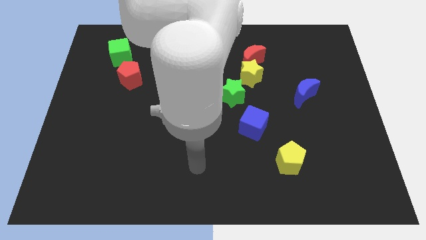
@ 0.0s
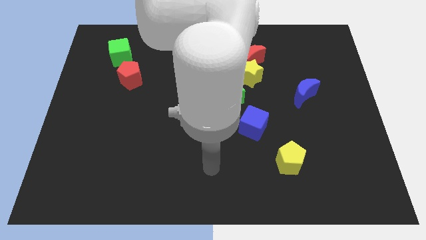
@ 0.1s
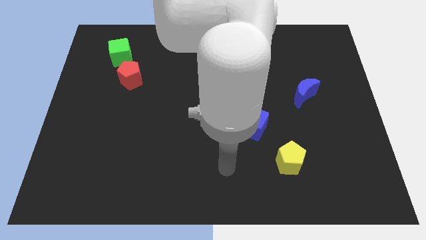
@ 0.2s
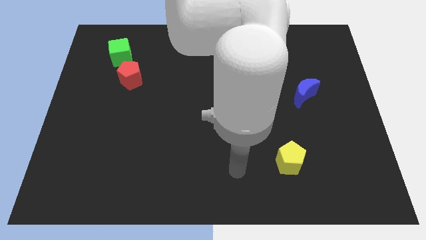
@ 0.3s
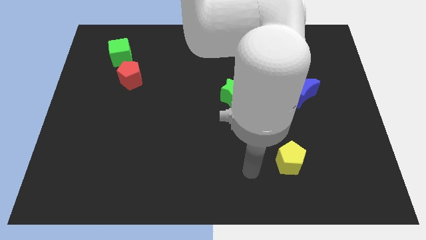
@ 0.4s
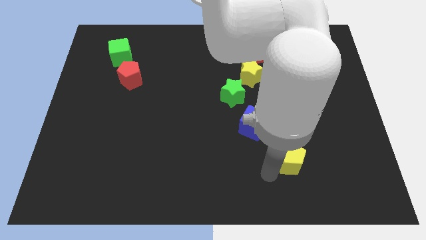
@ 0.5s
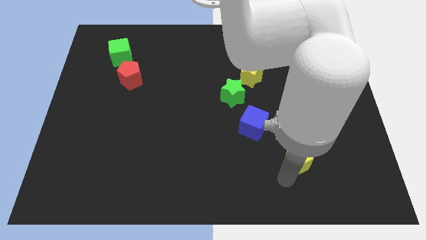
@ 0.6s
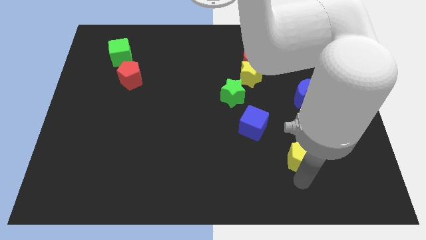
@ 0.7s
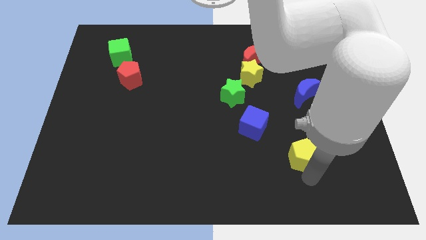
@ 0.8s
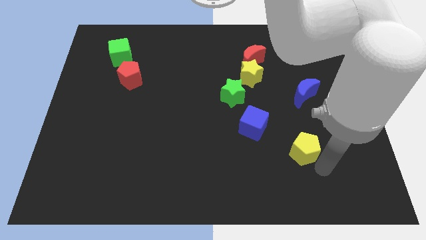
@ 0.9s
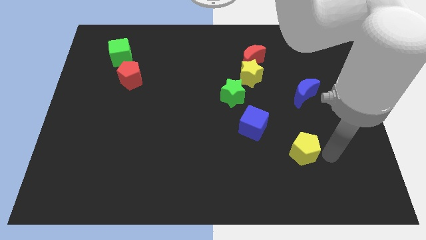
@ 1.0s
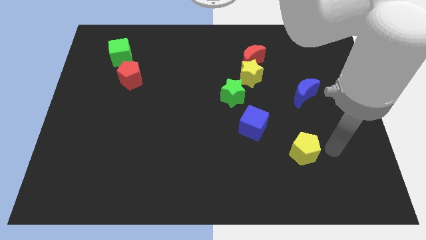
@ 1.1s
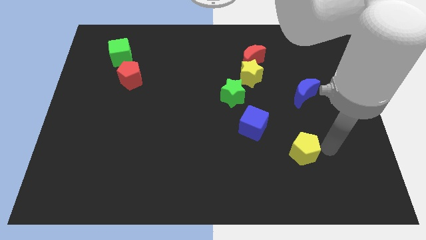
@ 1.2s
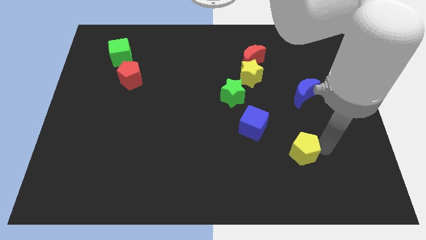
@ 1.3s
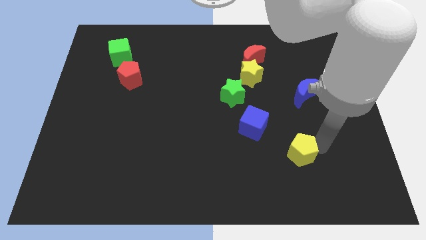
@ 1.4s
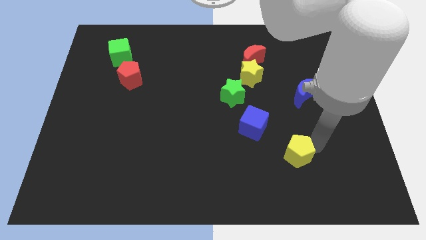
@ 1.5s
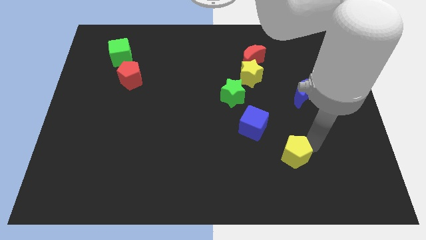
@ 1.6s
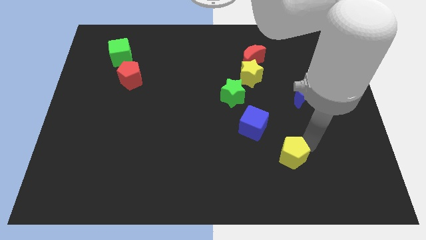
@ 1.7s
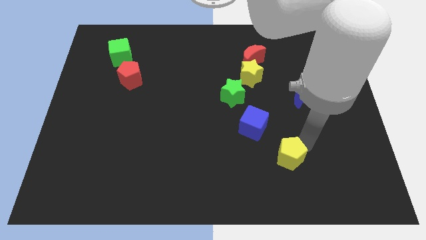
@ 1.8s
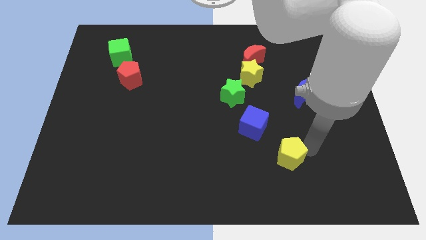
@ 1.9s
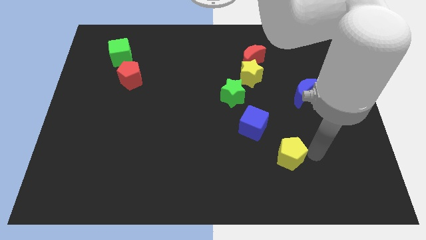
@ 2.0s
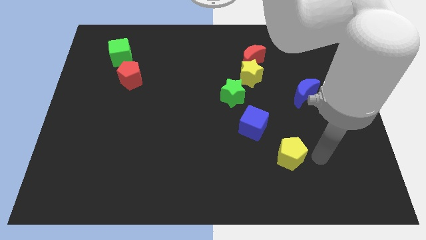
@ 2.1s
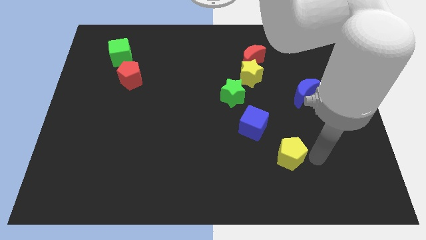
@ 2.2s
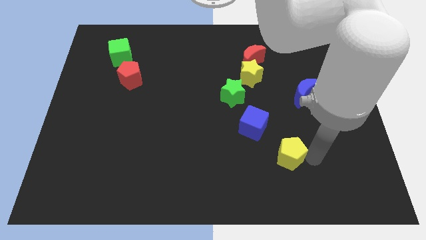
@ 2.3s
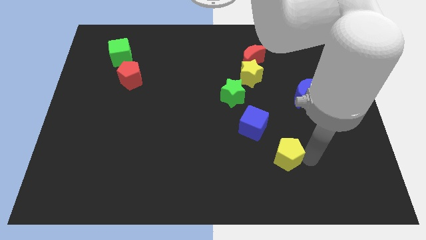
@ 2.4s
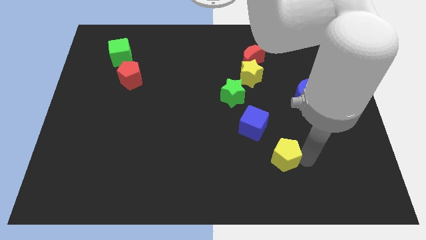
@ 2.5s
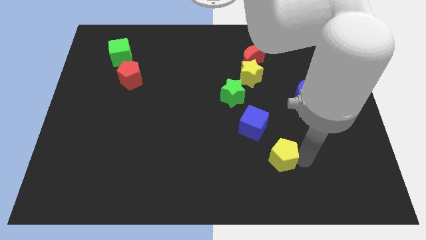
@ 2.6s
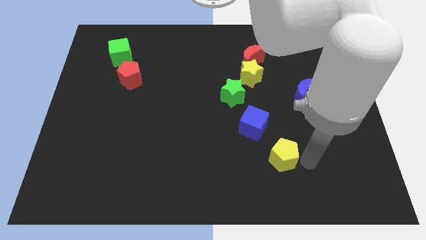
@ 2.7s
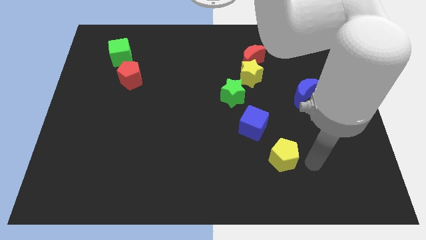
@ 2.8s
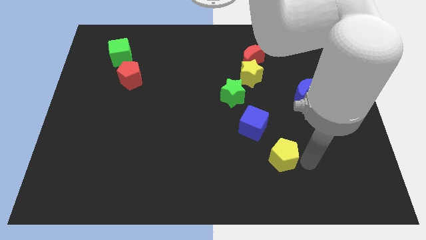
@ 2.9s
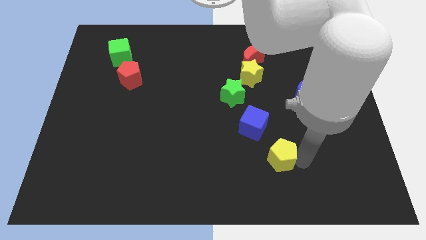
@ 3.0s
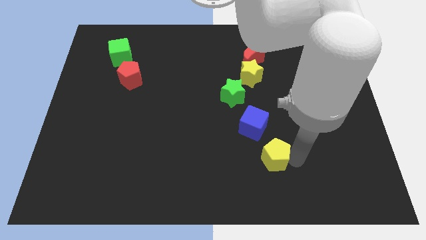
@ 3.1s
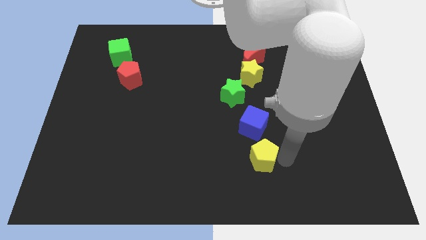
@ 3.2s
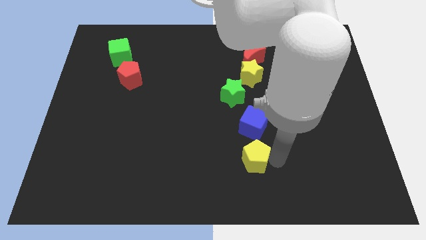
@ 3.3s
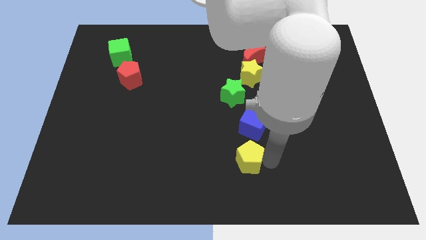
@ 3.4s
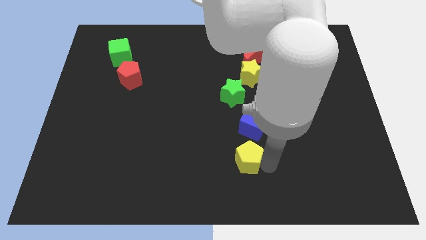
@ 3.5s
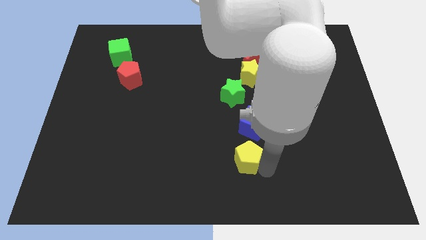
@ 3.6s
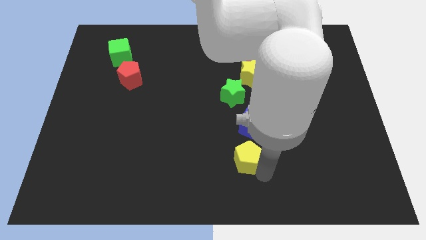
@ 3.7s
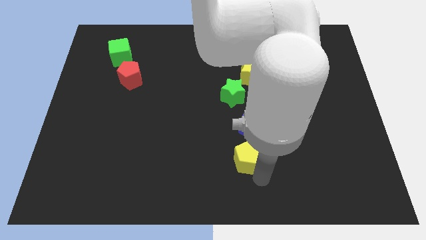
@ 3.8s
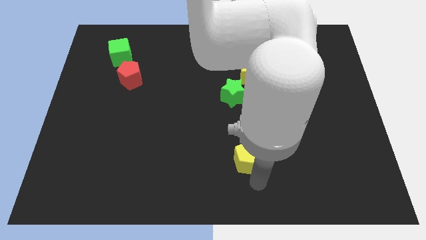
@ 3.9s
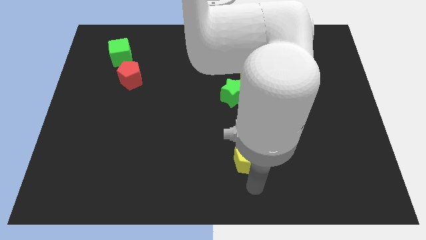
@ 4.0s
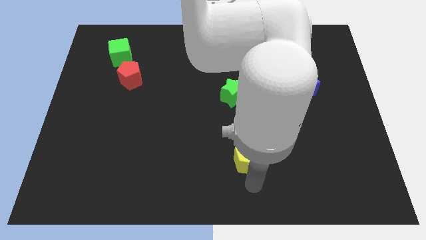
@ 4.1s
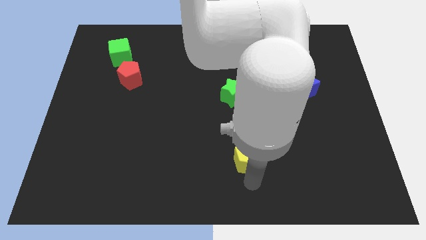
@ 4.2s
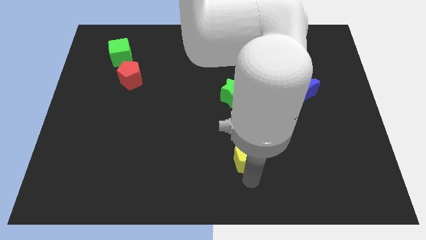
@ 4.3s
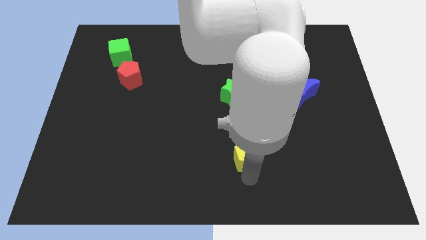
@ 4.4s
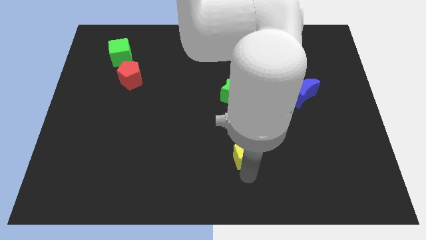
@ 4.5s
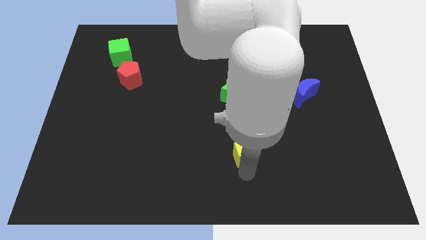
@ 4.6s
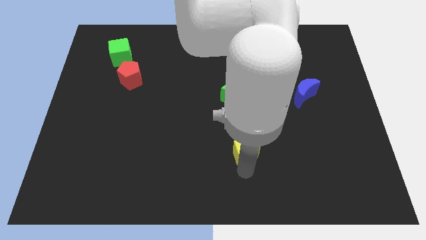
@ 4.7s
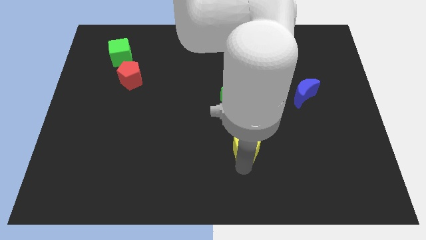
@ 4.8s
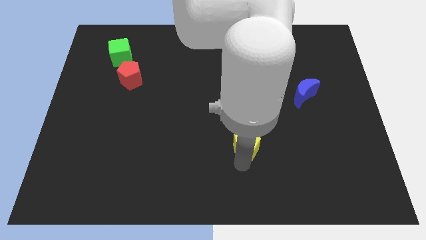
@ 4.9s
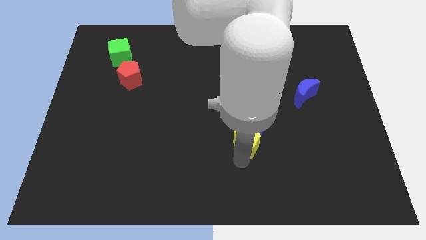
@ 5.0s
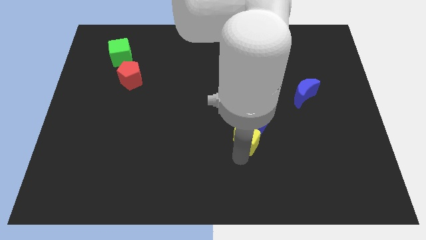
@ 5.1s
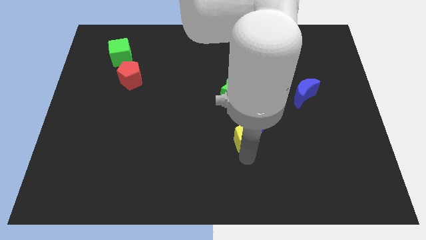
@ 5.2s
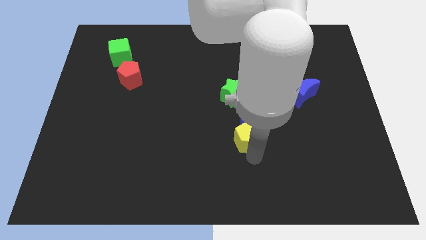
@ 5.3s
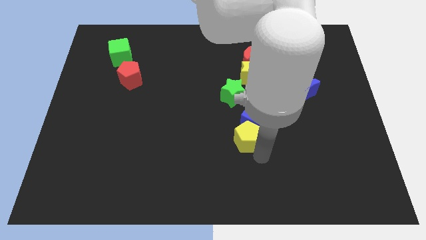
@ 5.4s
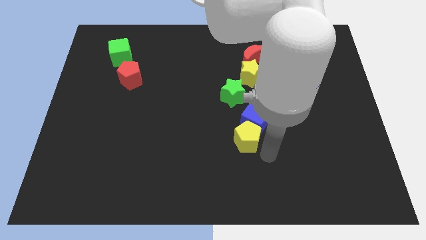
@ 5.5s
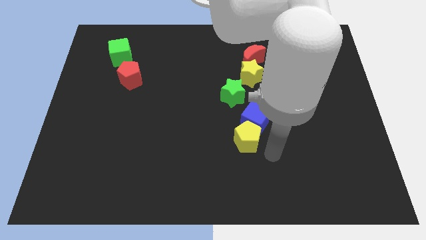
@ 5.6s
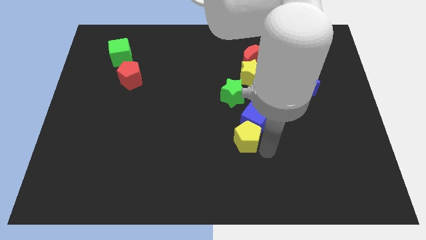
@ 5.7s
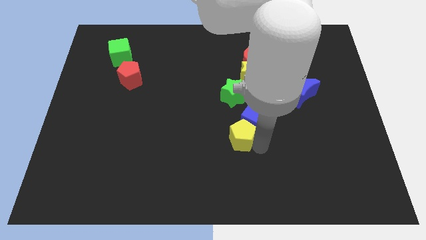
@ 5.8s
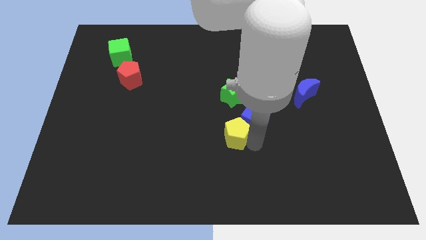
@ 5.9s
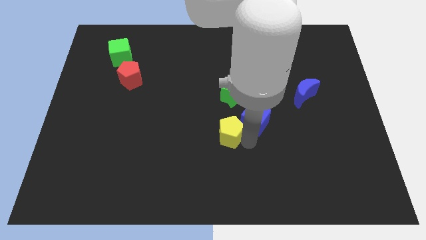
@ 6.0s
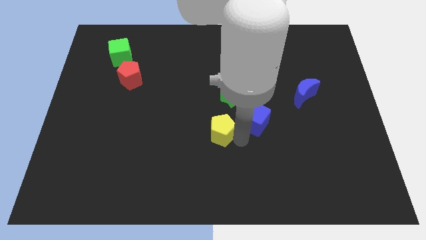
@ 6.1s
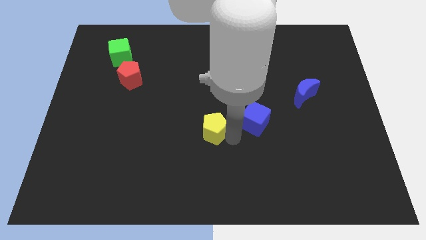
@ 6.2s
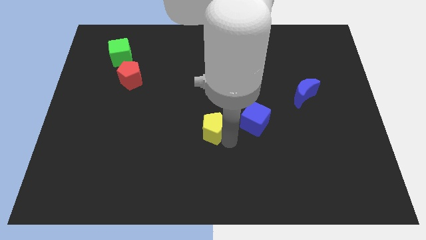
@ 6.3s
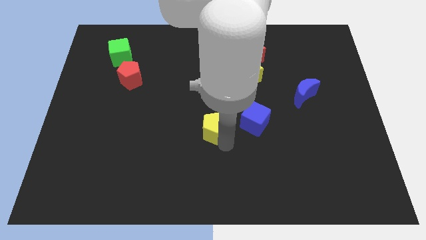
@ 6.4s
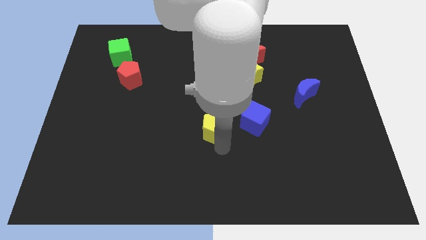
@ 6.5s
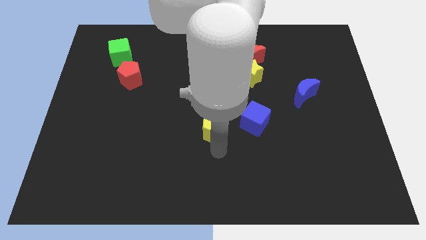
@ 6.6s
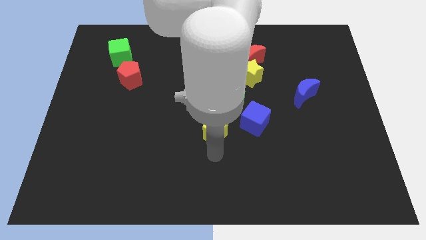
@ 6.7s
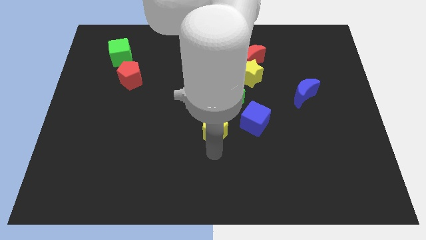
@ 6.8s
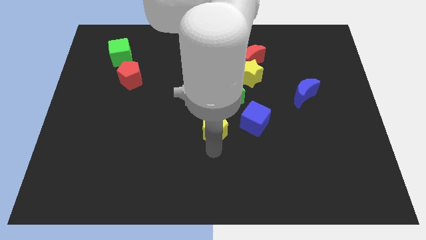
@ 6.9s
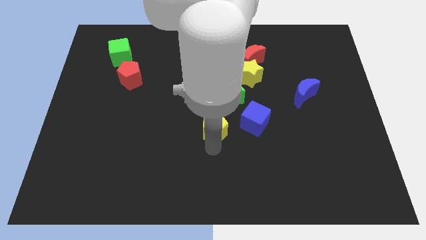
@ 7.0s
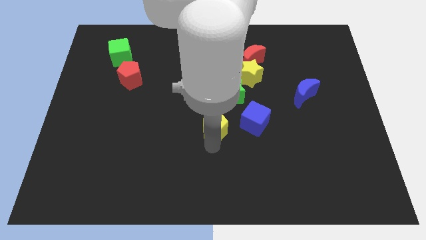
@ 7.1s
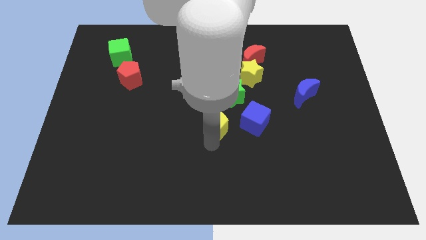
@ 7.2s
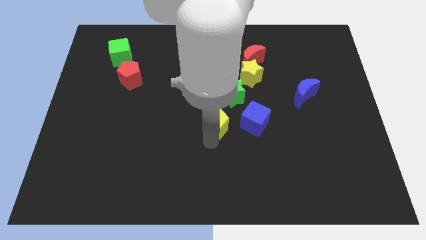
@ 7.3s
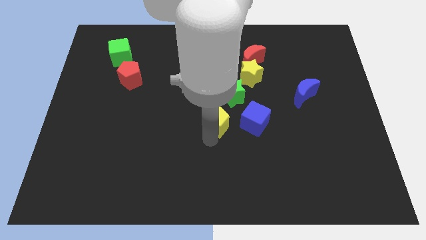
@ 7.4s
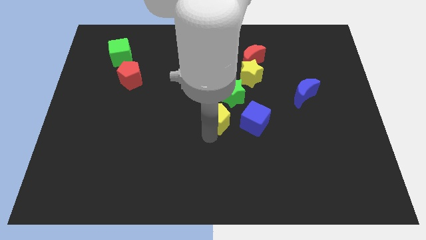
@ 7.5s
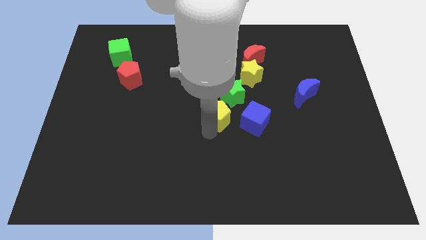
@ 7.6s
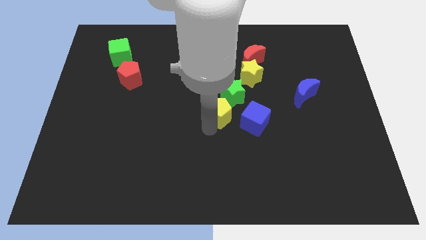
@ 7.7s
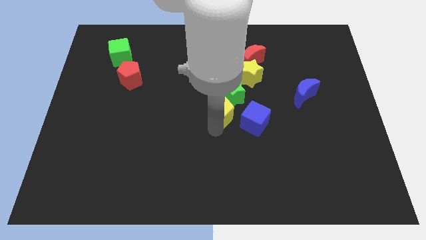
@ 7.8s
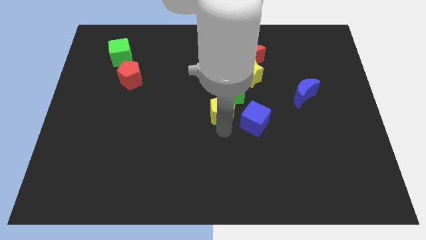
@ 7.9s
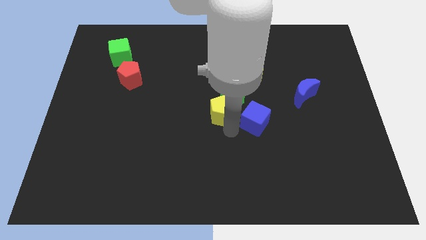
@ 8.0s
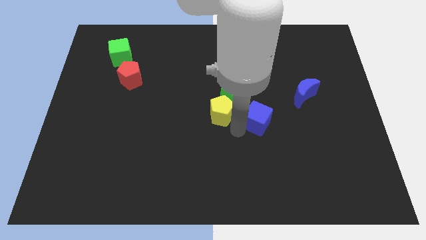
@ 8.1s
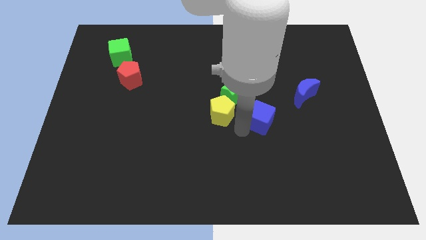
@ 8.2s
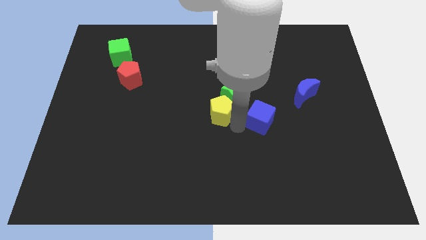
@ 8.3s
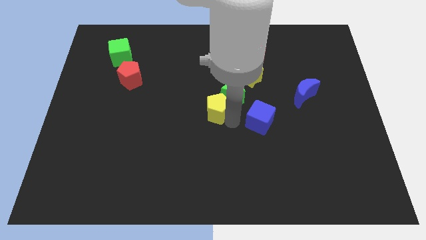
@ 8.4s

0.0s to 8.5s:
move the yellow pentagon diagonally upwards and to the left
